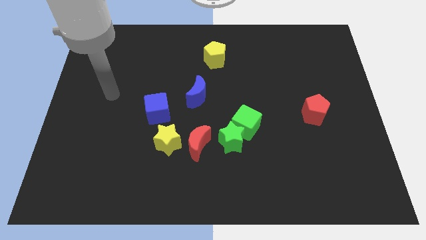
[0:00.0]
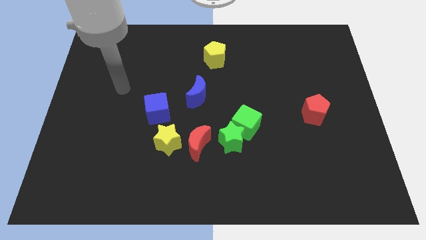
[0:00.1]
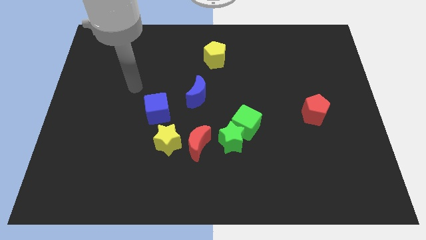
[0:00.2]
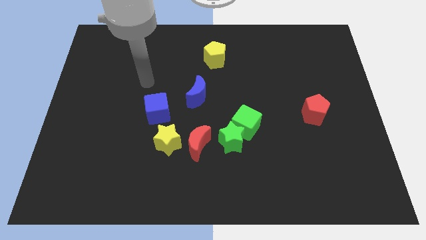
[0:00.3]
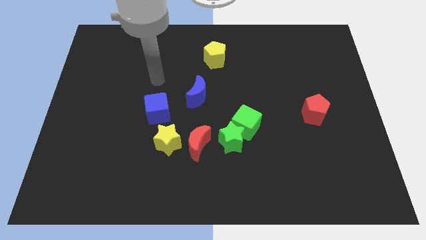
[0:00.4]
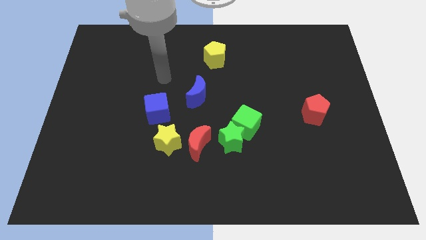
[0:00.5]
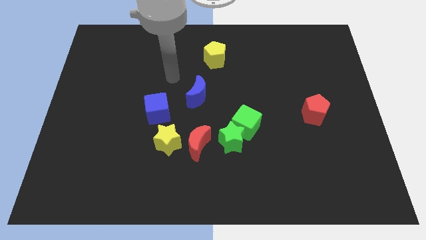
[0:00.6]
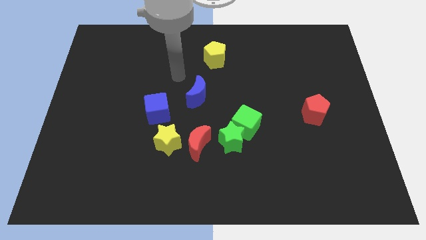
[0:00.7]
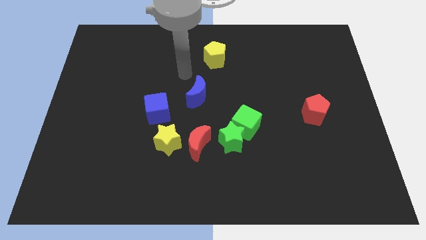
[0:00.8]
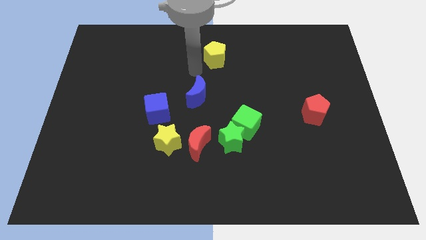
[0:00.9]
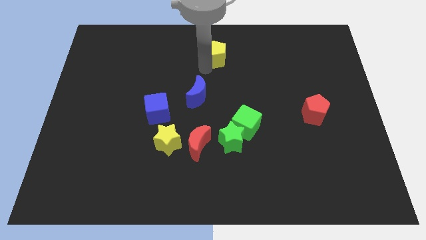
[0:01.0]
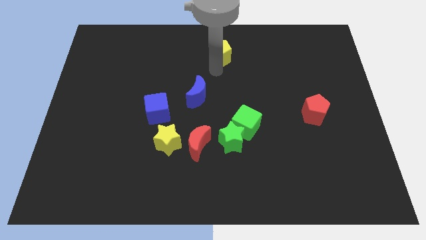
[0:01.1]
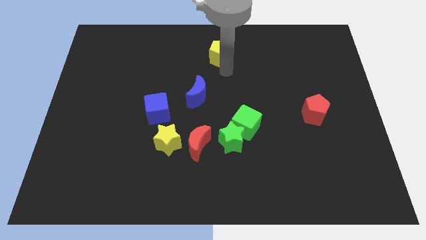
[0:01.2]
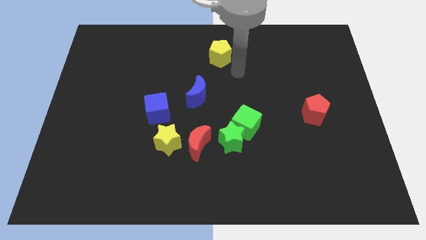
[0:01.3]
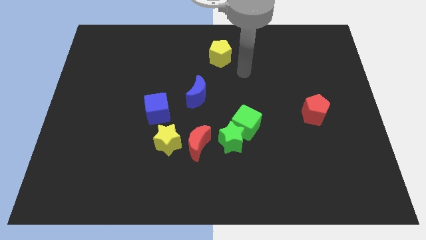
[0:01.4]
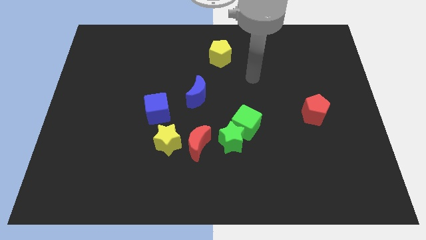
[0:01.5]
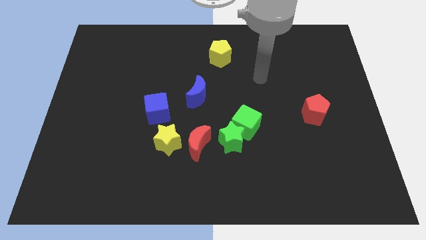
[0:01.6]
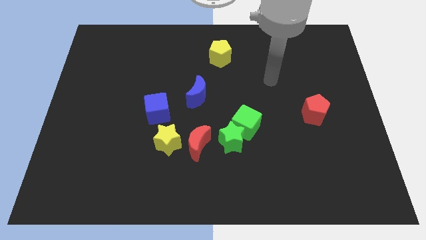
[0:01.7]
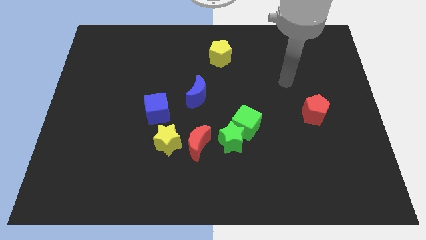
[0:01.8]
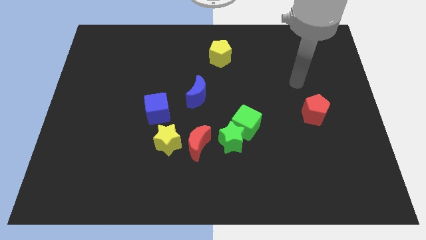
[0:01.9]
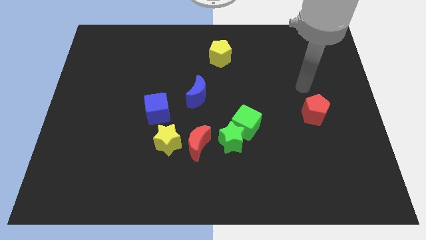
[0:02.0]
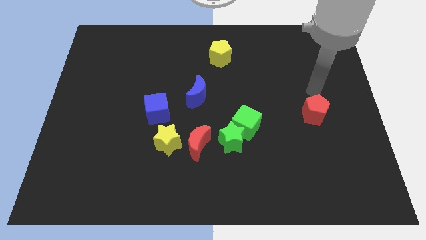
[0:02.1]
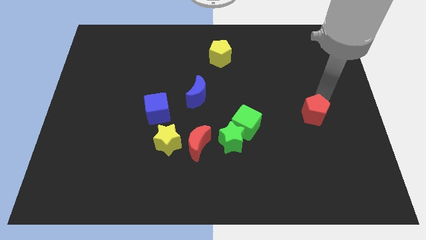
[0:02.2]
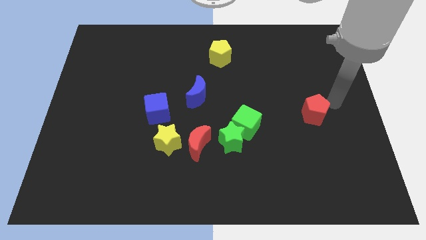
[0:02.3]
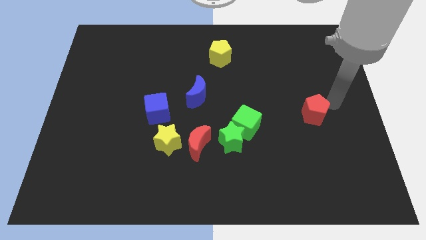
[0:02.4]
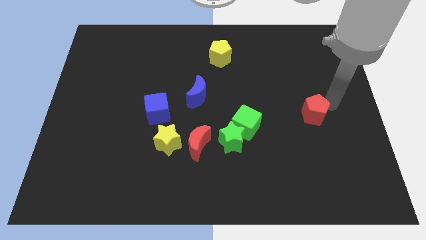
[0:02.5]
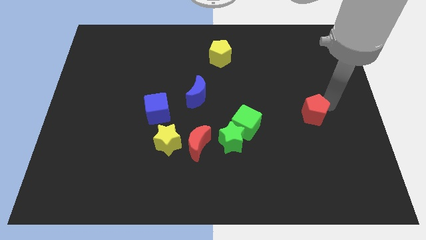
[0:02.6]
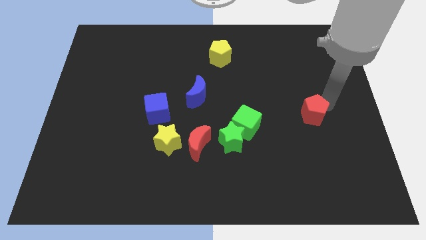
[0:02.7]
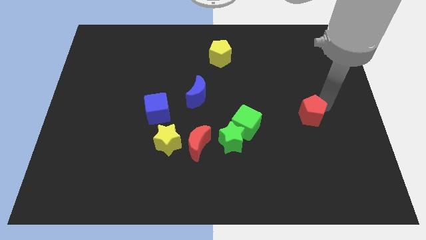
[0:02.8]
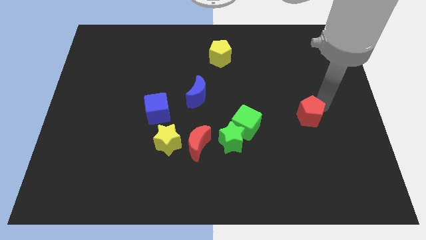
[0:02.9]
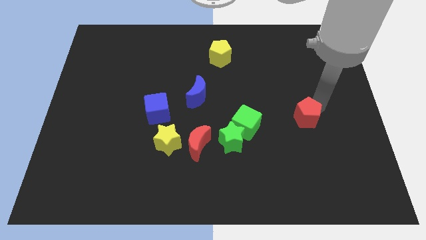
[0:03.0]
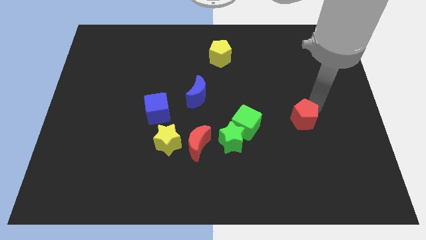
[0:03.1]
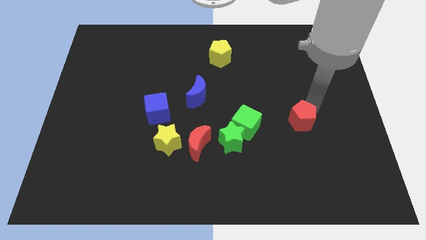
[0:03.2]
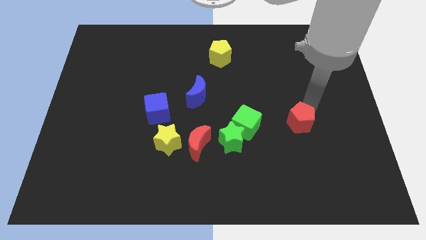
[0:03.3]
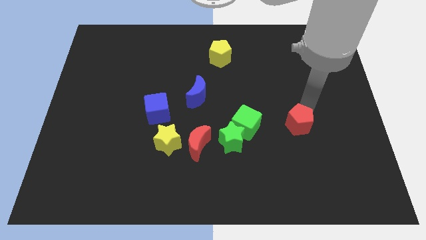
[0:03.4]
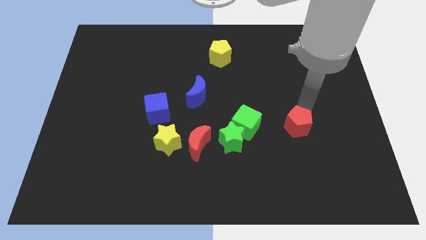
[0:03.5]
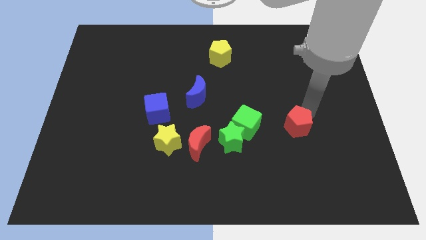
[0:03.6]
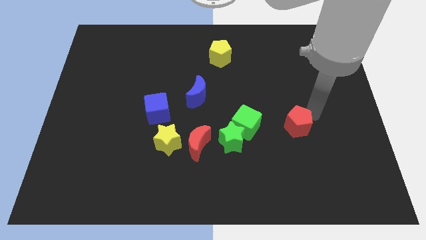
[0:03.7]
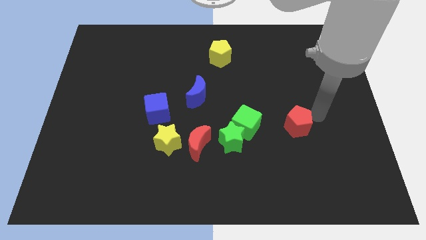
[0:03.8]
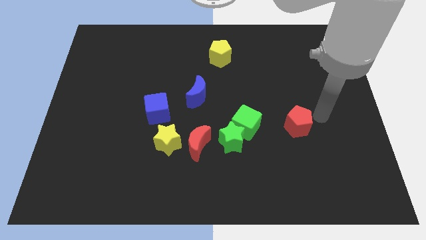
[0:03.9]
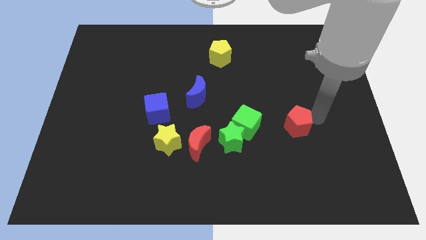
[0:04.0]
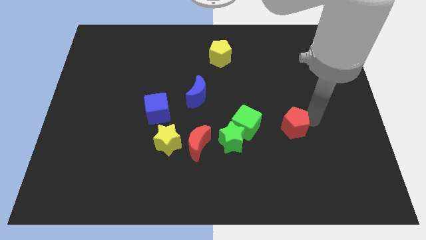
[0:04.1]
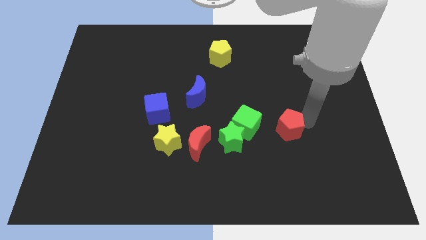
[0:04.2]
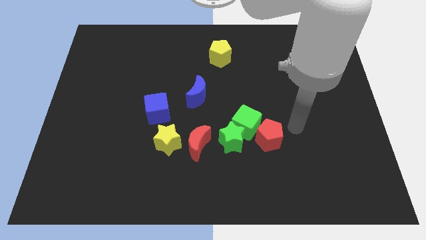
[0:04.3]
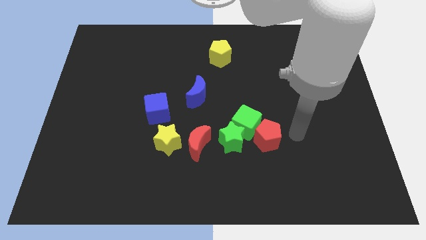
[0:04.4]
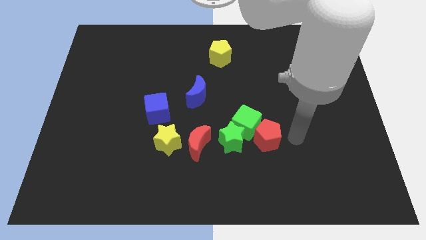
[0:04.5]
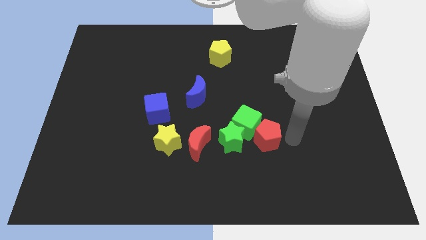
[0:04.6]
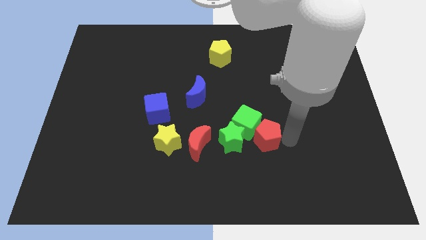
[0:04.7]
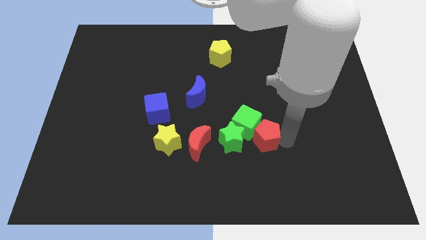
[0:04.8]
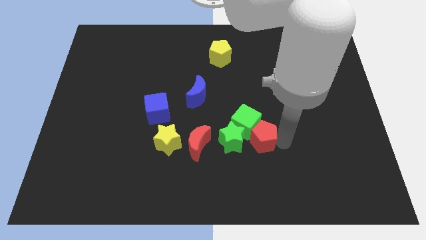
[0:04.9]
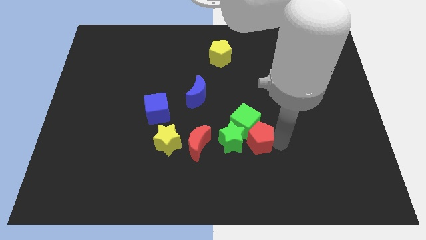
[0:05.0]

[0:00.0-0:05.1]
push the red pentagon towards the green star

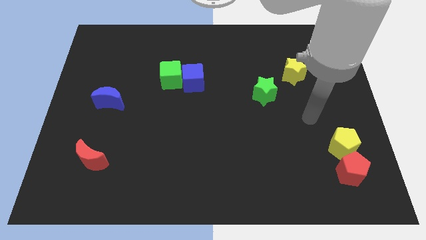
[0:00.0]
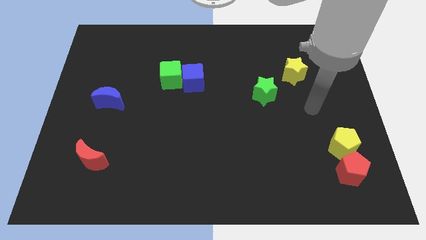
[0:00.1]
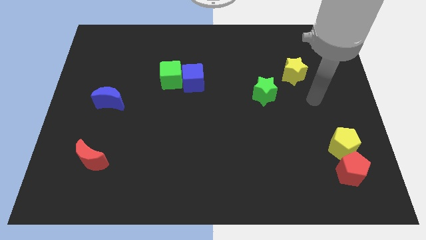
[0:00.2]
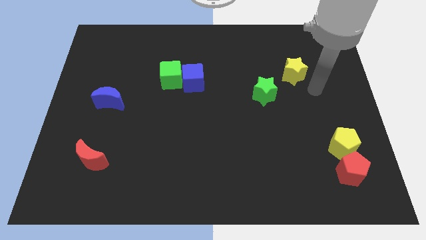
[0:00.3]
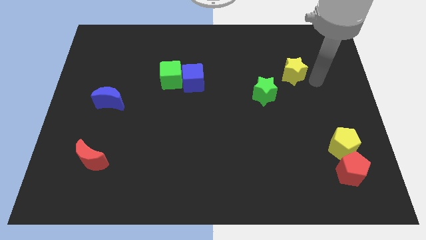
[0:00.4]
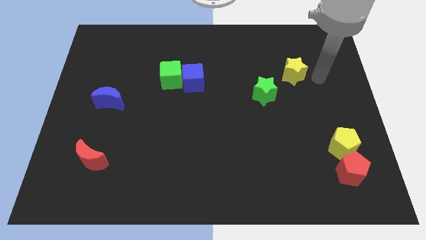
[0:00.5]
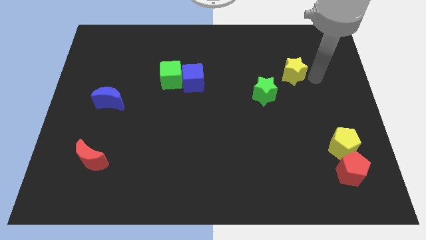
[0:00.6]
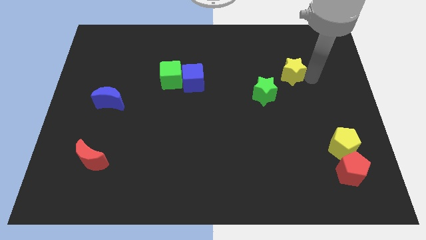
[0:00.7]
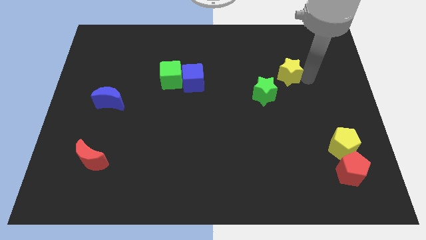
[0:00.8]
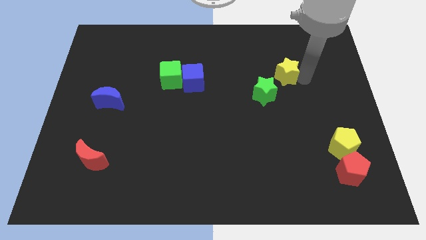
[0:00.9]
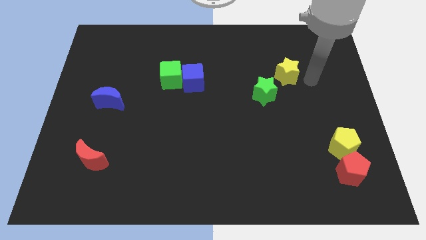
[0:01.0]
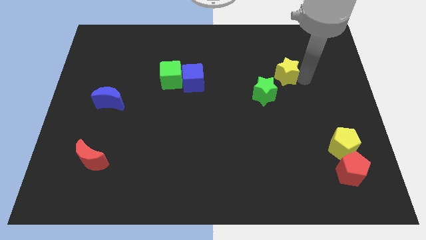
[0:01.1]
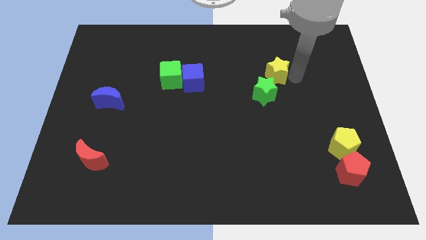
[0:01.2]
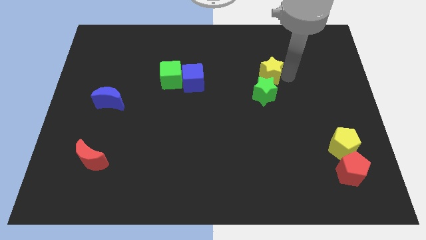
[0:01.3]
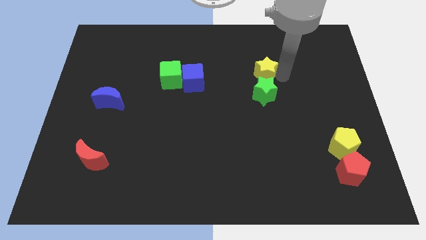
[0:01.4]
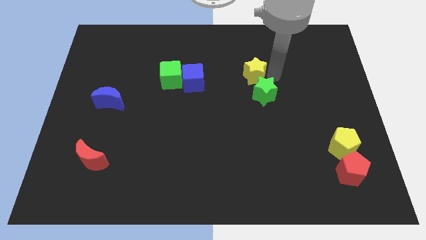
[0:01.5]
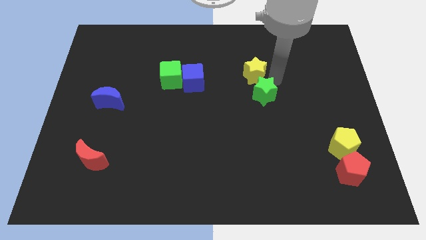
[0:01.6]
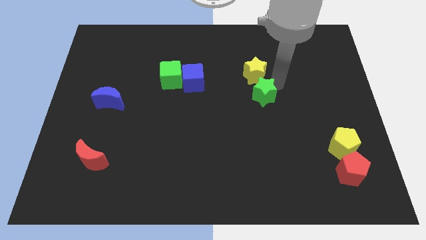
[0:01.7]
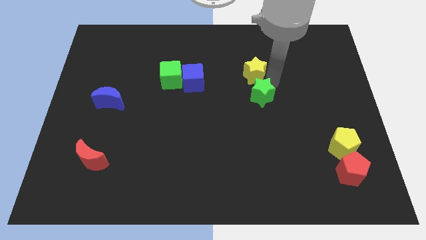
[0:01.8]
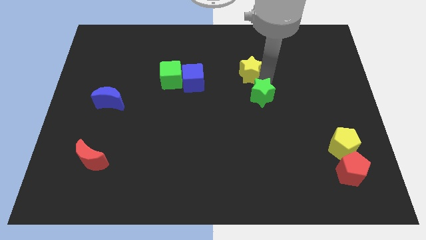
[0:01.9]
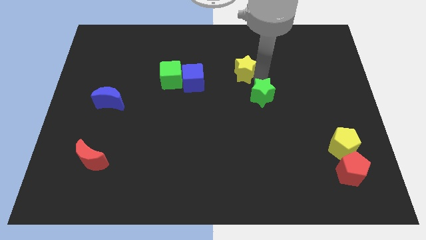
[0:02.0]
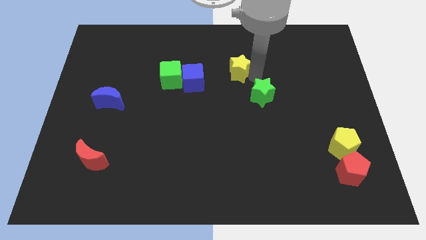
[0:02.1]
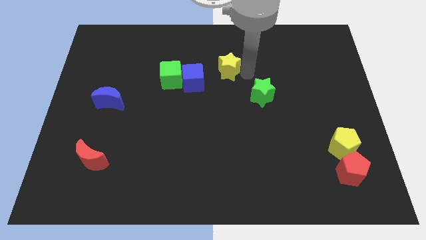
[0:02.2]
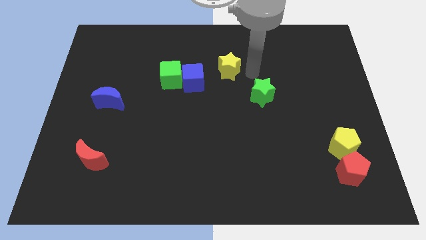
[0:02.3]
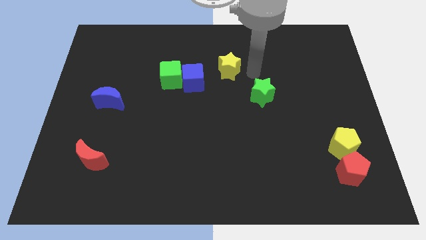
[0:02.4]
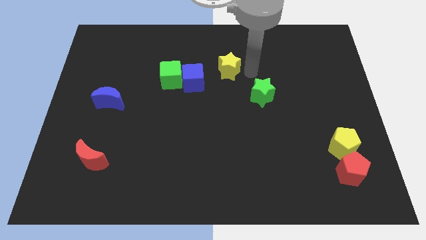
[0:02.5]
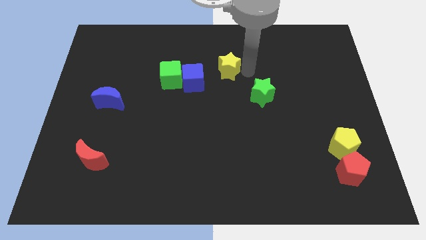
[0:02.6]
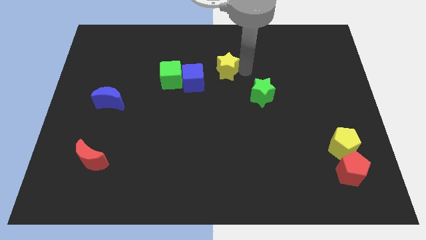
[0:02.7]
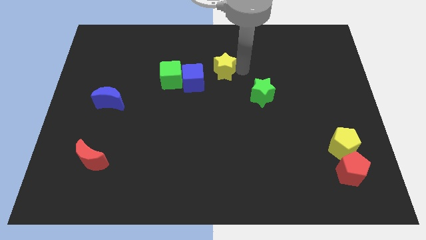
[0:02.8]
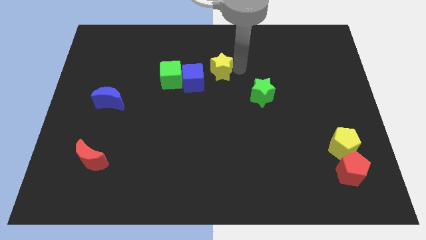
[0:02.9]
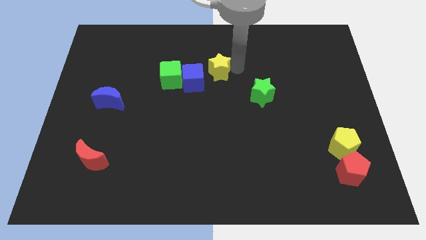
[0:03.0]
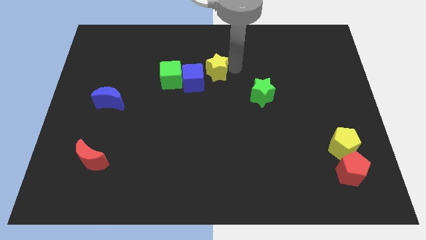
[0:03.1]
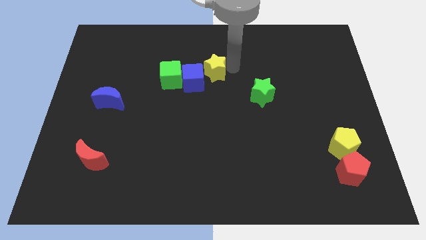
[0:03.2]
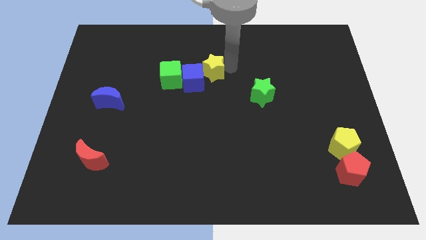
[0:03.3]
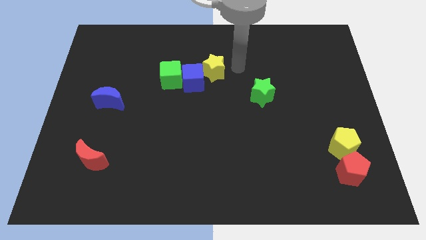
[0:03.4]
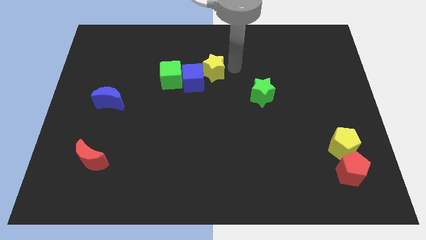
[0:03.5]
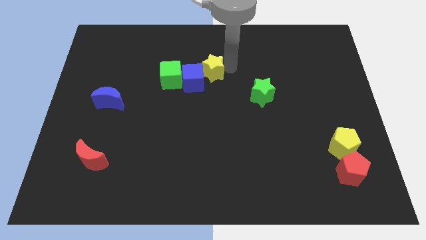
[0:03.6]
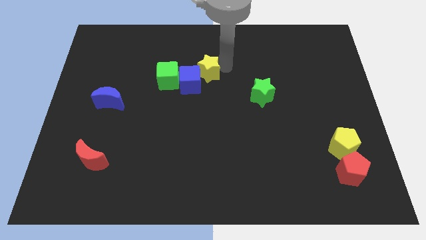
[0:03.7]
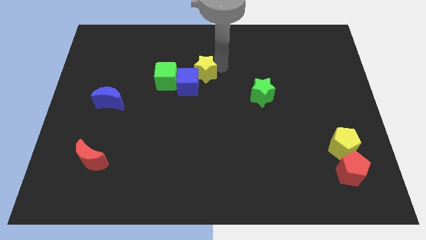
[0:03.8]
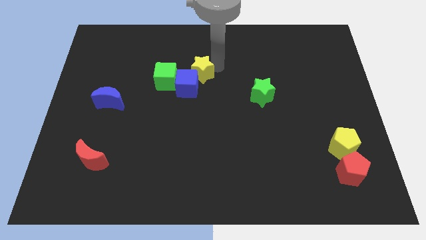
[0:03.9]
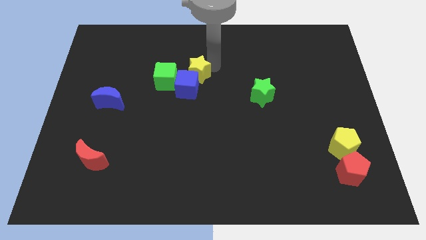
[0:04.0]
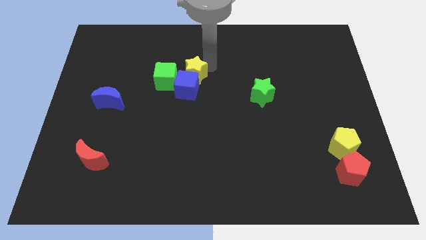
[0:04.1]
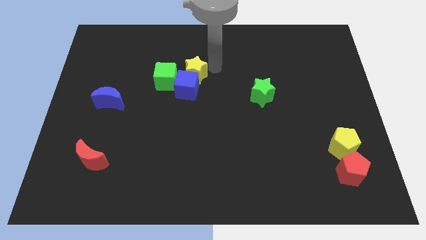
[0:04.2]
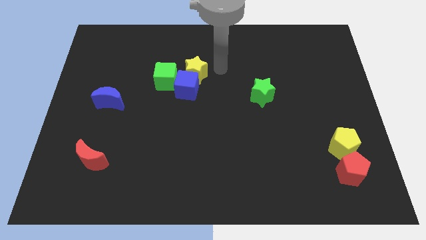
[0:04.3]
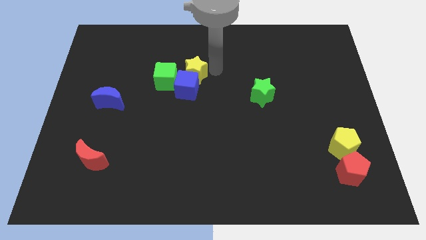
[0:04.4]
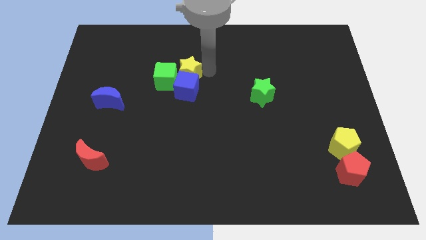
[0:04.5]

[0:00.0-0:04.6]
put the yellow star next to the green cube
